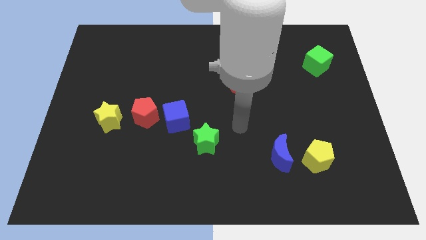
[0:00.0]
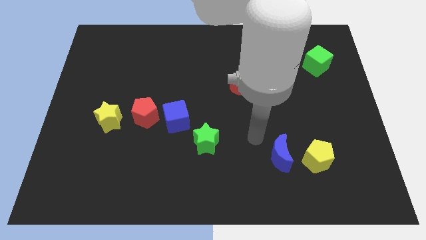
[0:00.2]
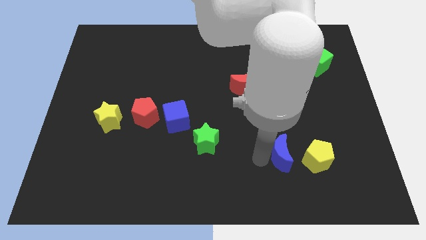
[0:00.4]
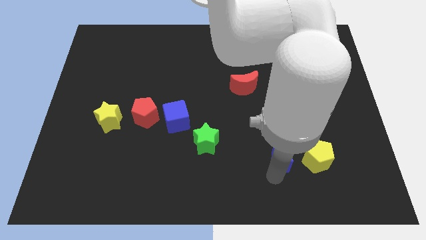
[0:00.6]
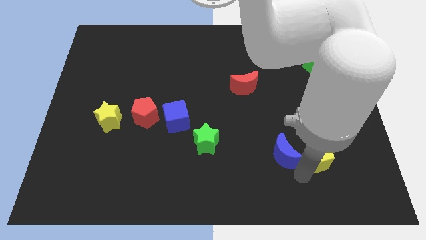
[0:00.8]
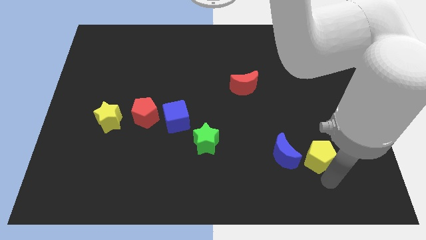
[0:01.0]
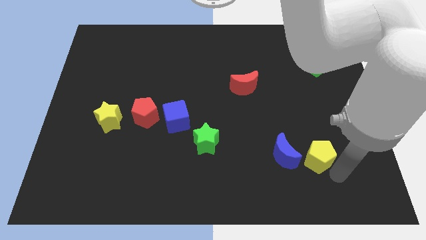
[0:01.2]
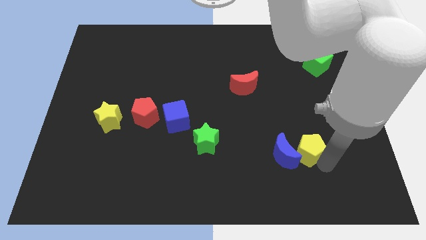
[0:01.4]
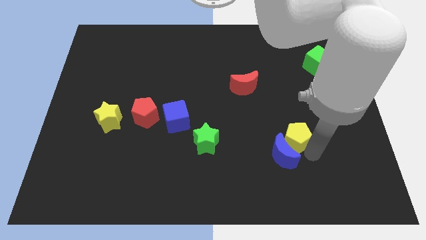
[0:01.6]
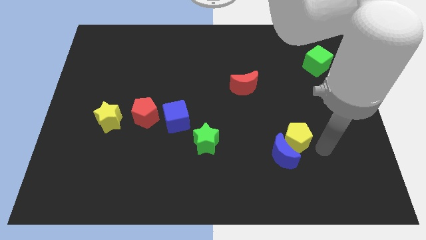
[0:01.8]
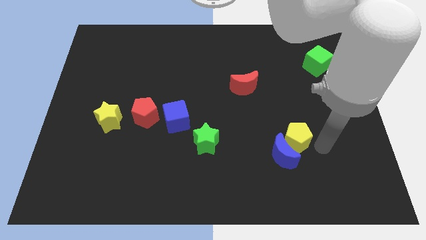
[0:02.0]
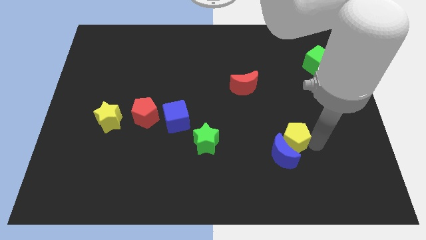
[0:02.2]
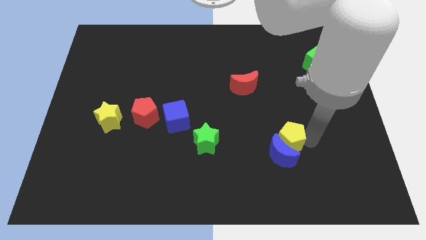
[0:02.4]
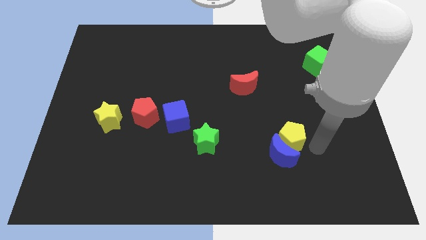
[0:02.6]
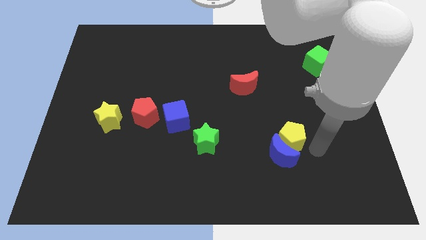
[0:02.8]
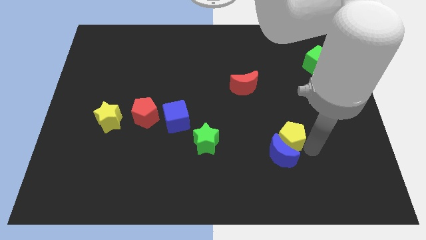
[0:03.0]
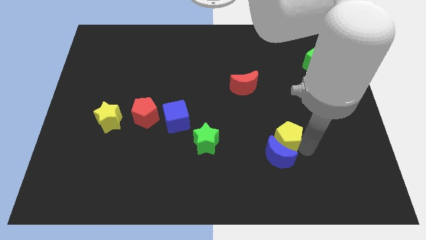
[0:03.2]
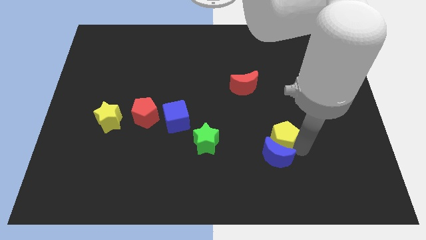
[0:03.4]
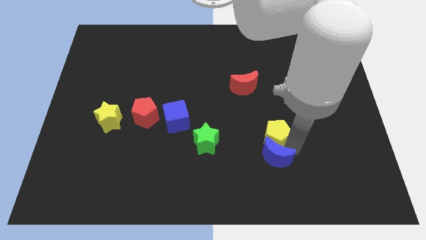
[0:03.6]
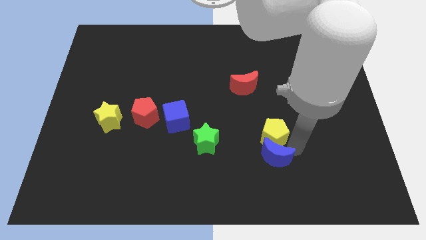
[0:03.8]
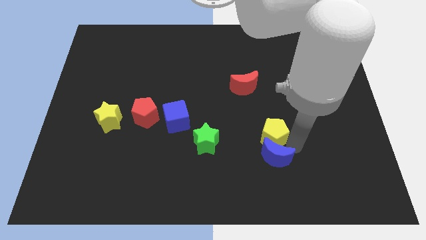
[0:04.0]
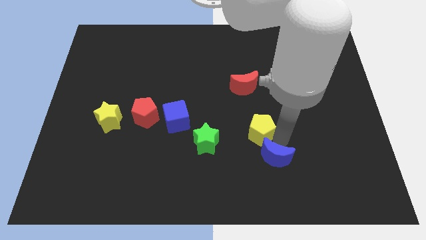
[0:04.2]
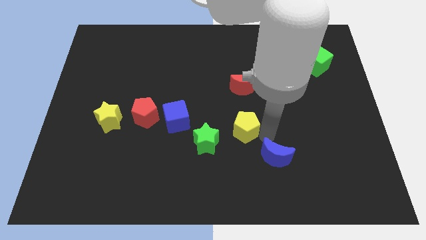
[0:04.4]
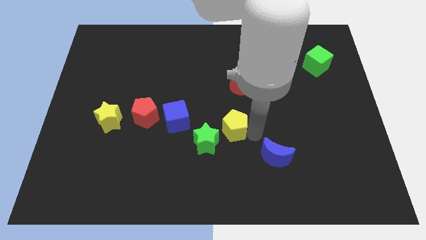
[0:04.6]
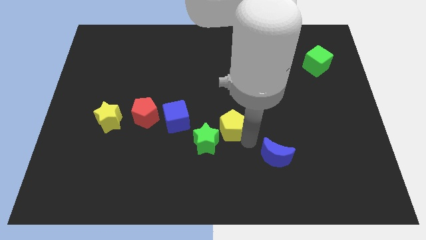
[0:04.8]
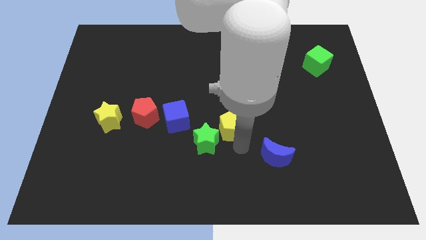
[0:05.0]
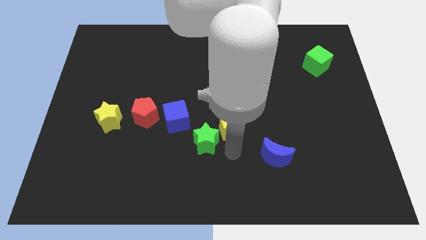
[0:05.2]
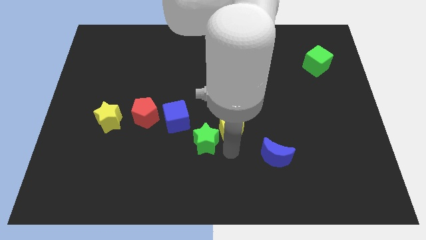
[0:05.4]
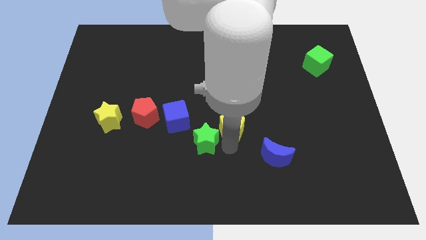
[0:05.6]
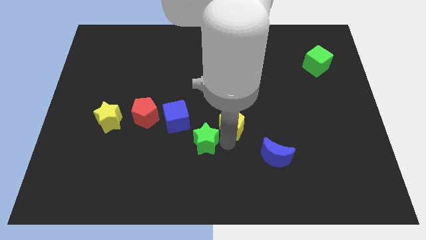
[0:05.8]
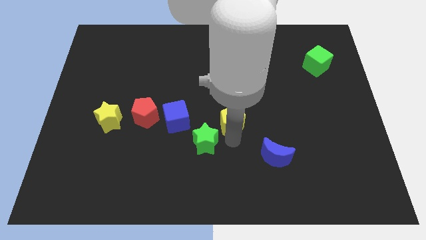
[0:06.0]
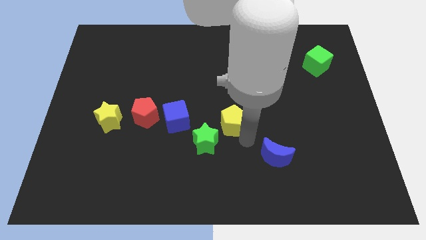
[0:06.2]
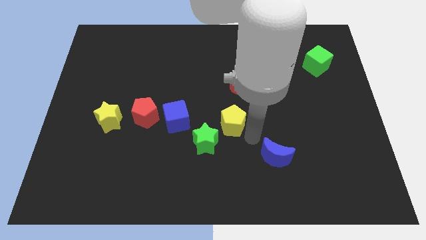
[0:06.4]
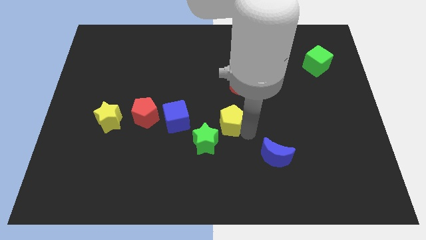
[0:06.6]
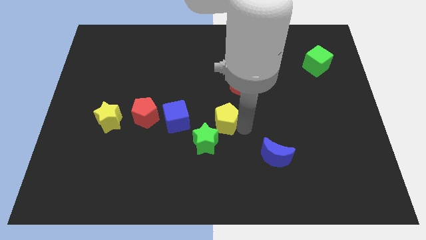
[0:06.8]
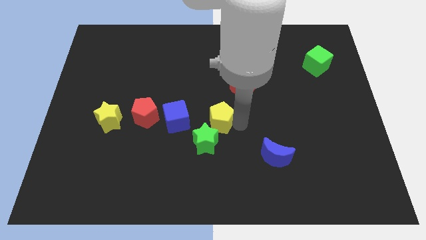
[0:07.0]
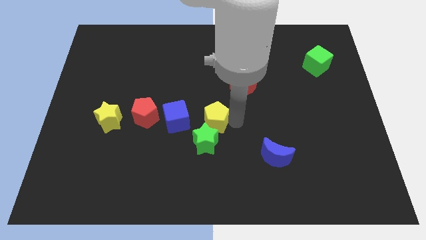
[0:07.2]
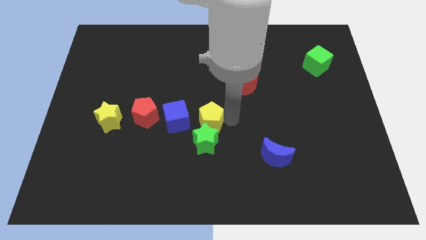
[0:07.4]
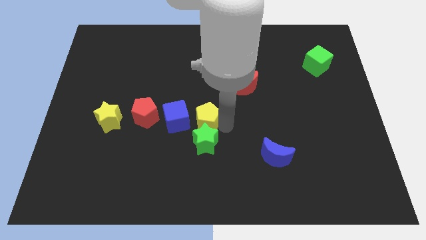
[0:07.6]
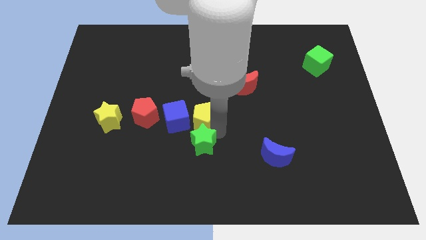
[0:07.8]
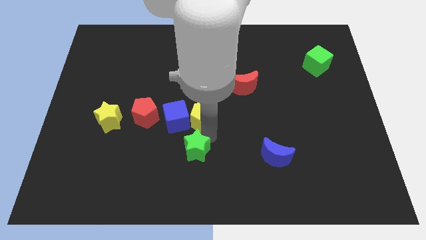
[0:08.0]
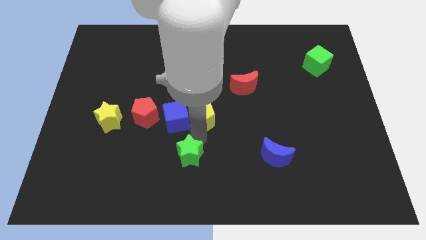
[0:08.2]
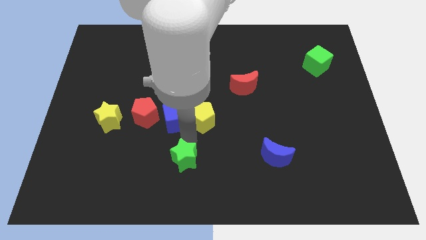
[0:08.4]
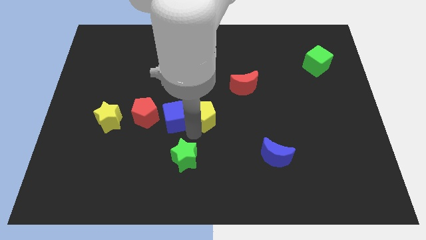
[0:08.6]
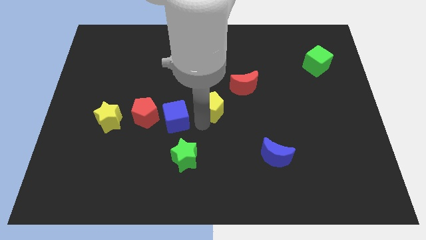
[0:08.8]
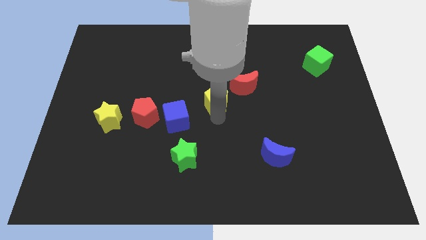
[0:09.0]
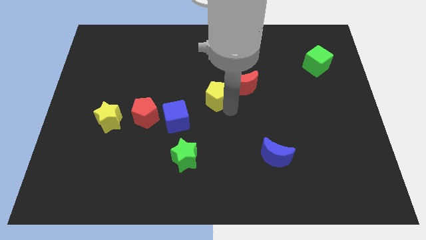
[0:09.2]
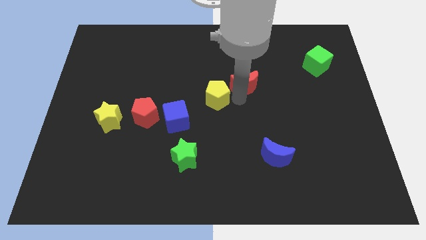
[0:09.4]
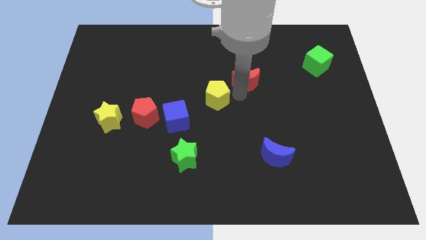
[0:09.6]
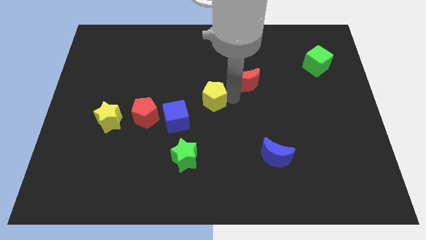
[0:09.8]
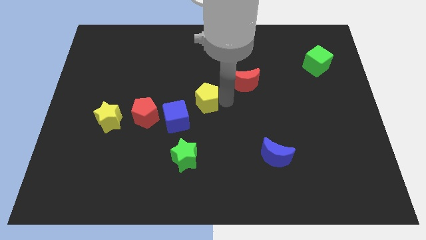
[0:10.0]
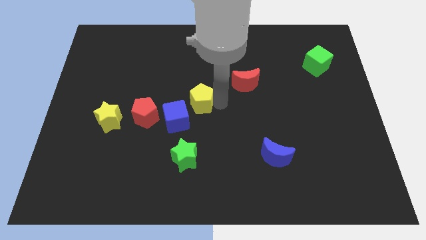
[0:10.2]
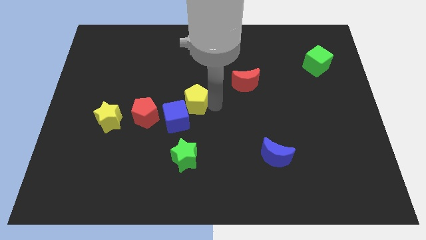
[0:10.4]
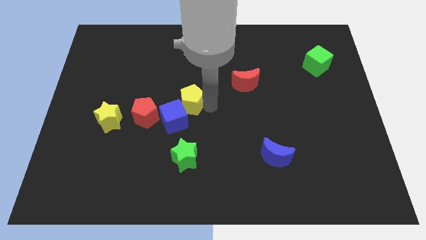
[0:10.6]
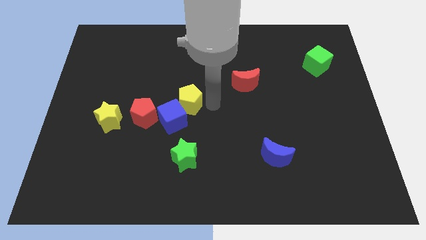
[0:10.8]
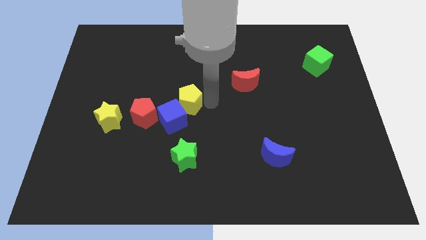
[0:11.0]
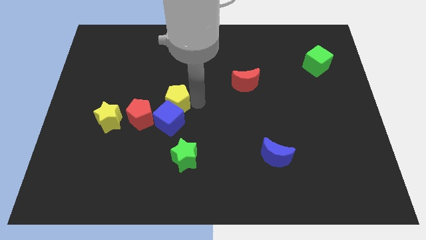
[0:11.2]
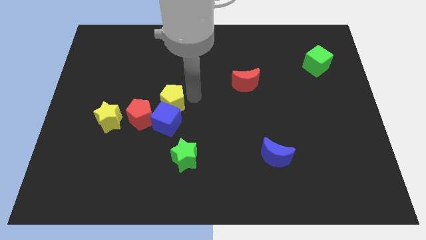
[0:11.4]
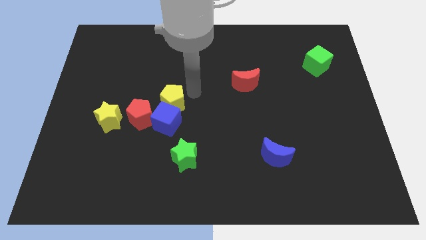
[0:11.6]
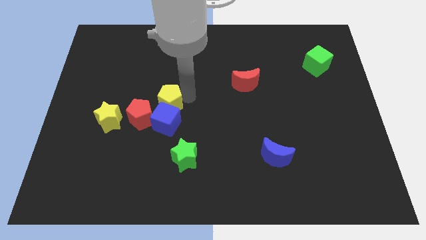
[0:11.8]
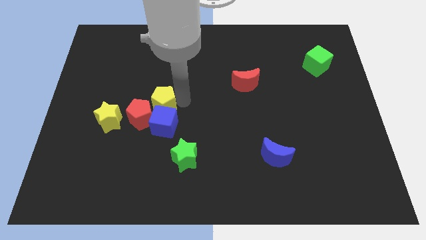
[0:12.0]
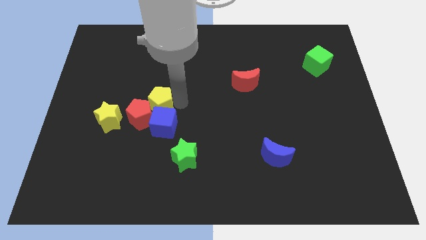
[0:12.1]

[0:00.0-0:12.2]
push the yellow pentagon next to the red pentagon

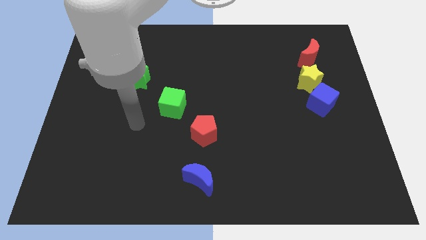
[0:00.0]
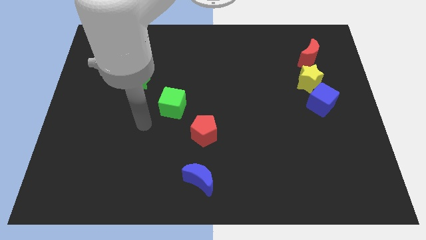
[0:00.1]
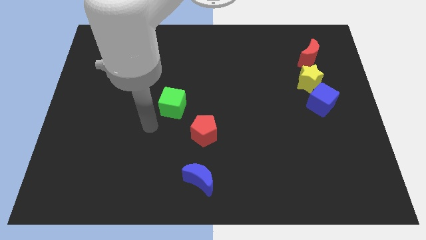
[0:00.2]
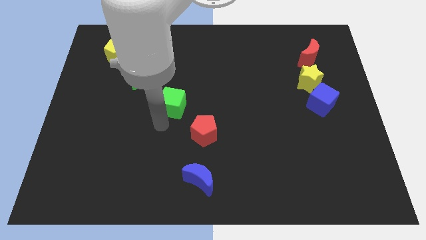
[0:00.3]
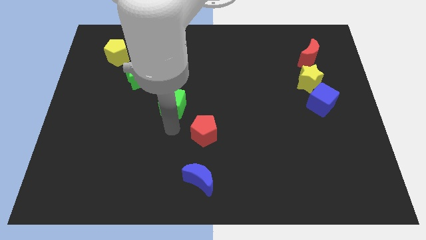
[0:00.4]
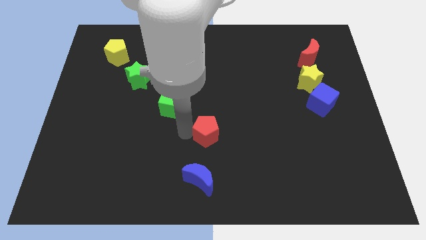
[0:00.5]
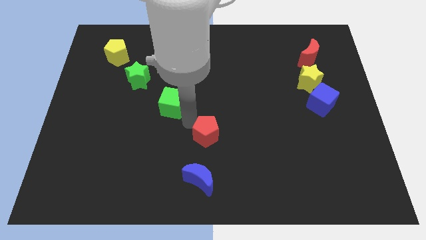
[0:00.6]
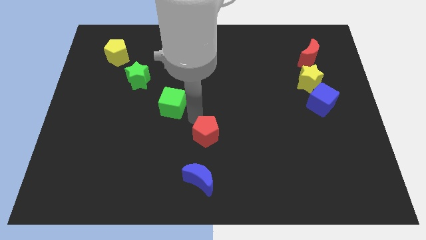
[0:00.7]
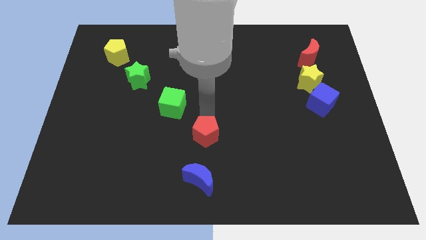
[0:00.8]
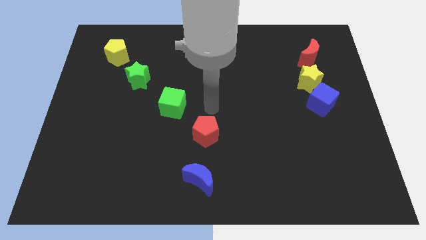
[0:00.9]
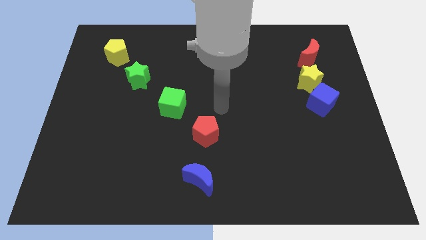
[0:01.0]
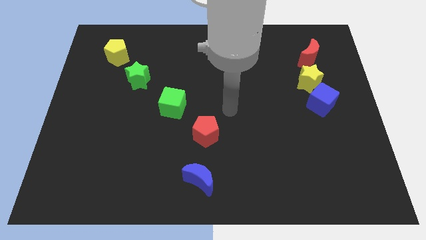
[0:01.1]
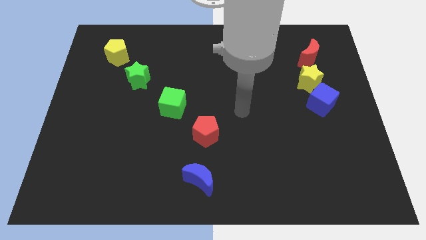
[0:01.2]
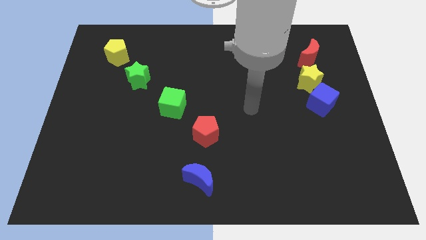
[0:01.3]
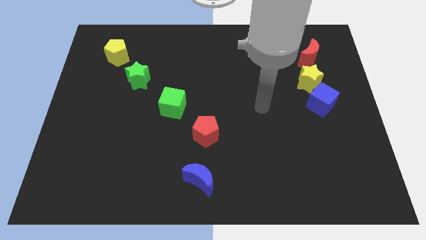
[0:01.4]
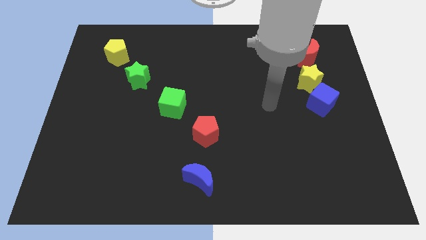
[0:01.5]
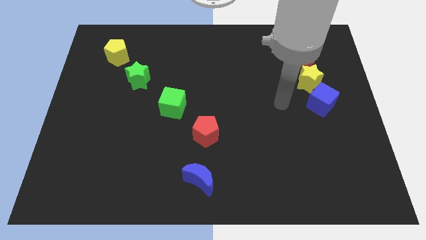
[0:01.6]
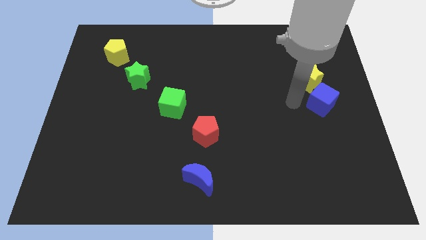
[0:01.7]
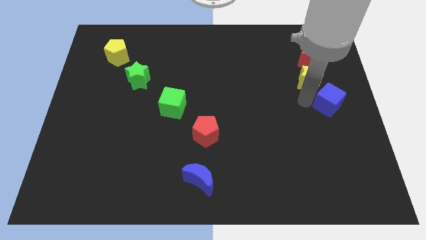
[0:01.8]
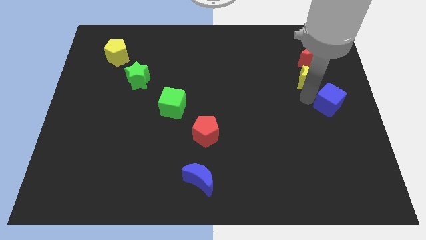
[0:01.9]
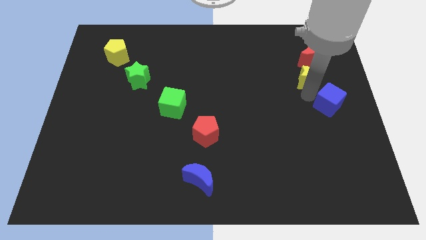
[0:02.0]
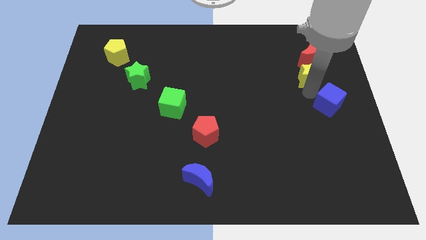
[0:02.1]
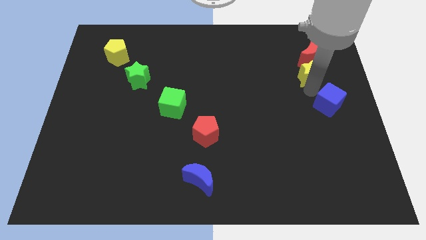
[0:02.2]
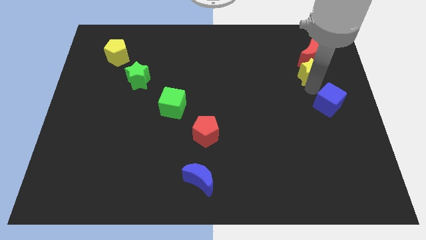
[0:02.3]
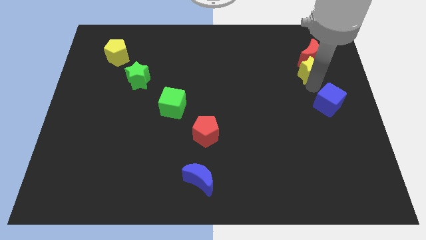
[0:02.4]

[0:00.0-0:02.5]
push the yellow star close to the red moon
